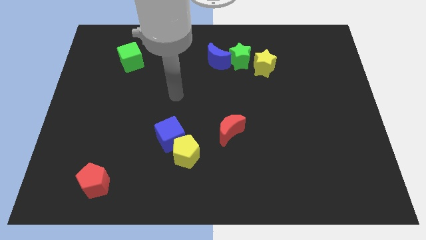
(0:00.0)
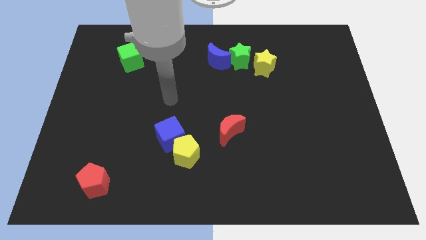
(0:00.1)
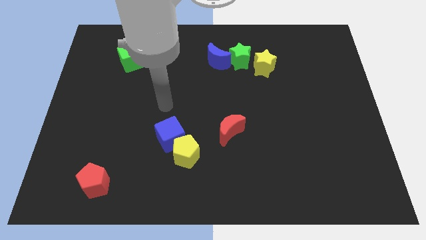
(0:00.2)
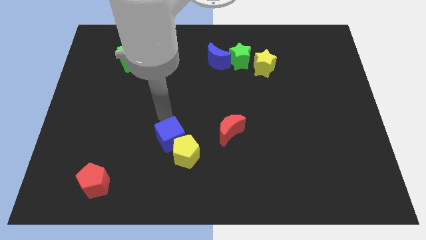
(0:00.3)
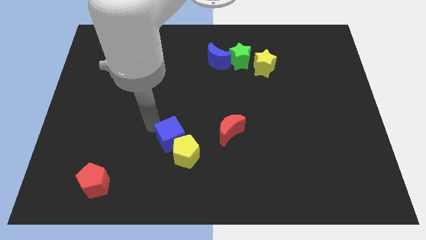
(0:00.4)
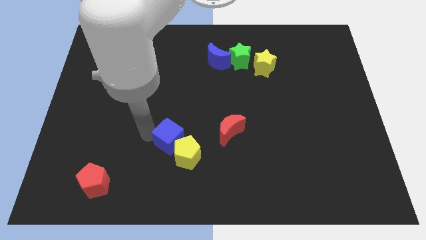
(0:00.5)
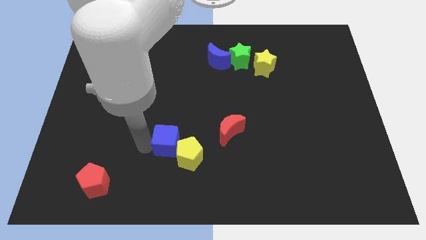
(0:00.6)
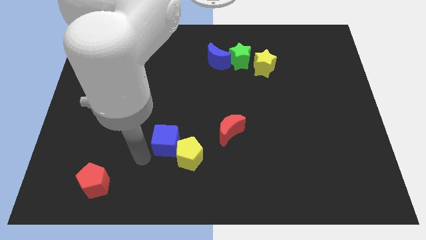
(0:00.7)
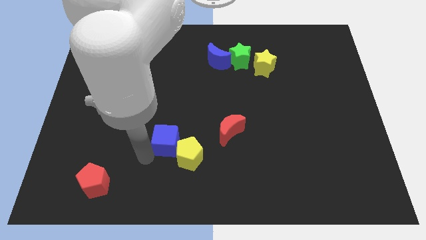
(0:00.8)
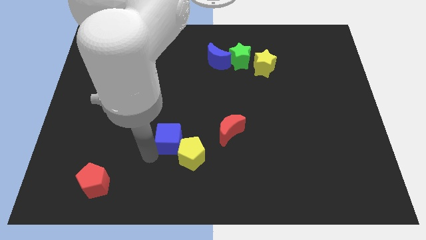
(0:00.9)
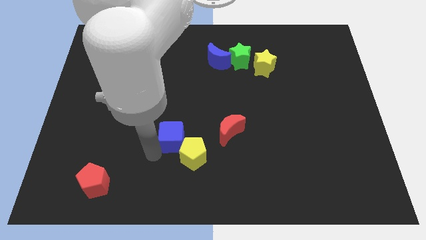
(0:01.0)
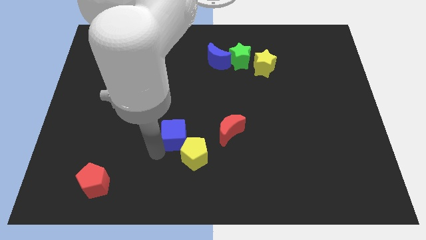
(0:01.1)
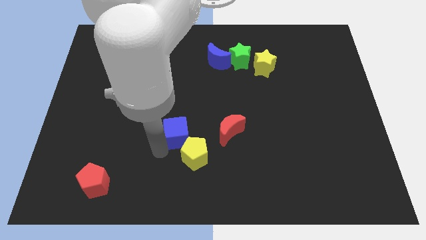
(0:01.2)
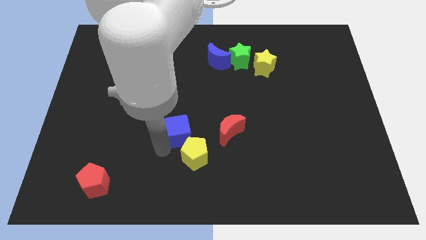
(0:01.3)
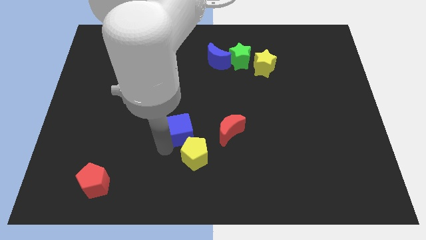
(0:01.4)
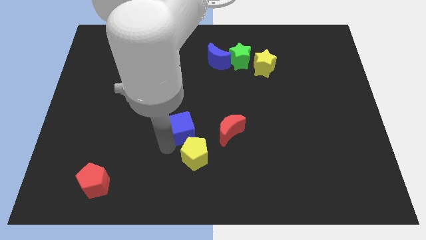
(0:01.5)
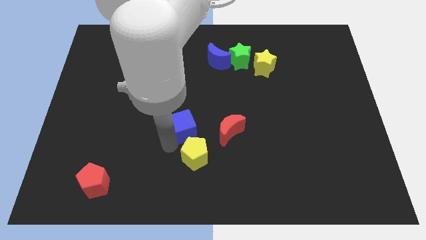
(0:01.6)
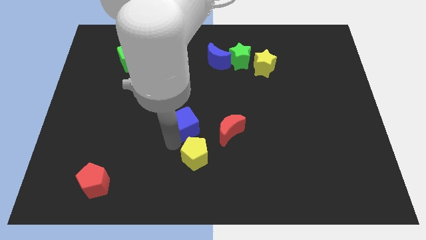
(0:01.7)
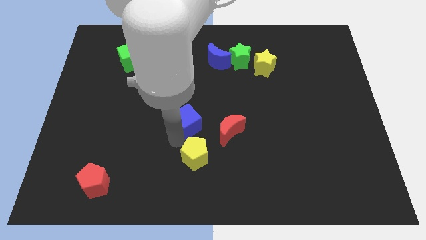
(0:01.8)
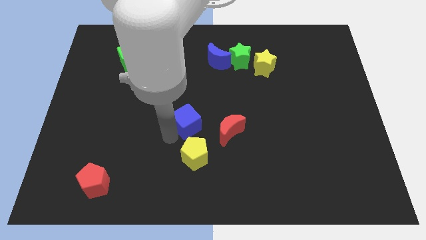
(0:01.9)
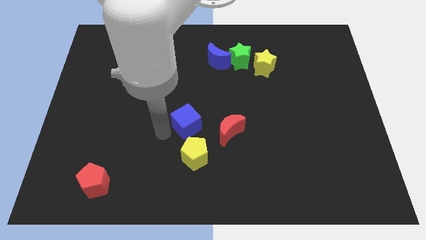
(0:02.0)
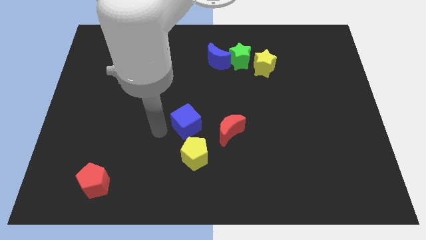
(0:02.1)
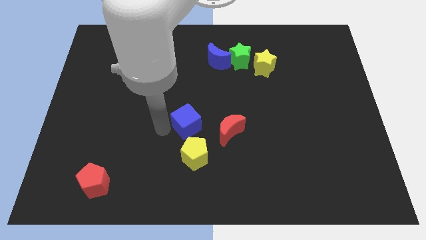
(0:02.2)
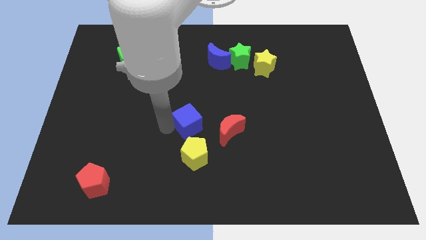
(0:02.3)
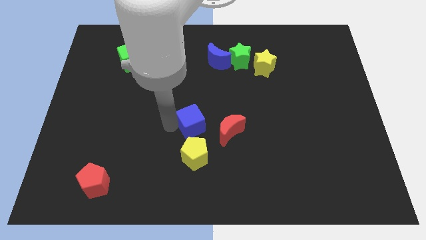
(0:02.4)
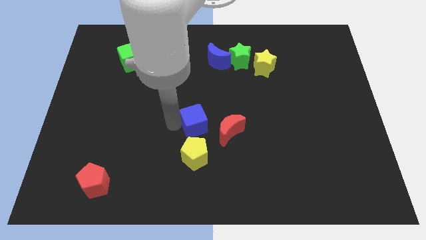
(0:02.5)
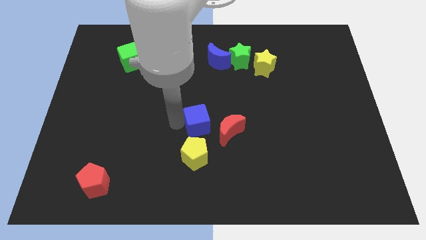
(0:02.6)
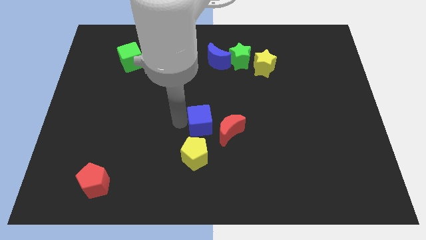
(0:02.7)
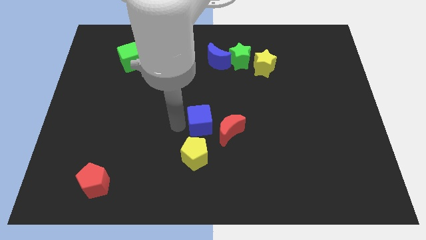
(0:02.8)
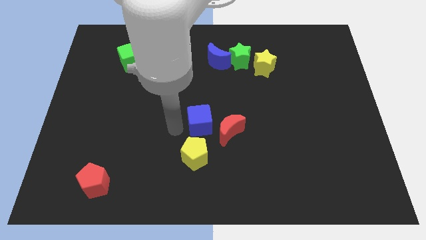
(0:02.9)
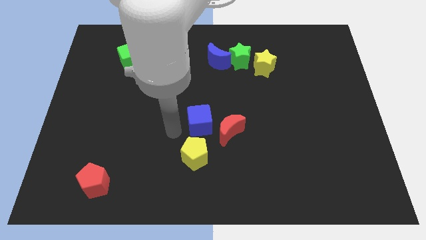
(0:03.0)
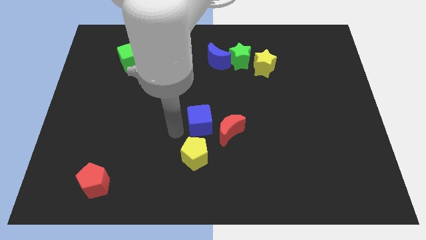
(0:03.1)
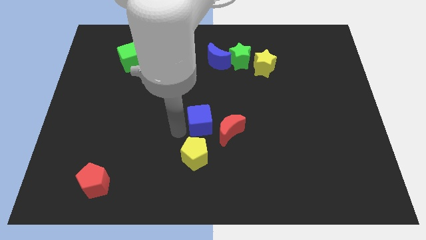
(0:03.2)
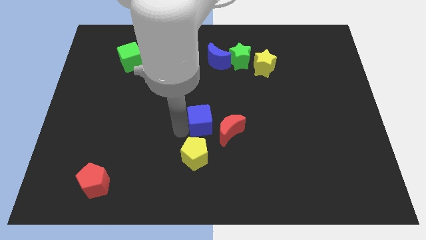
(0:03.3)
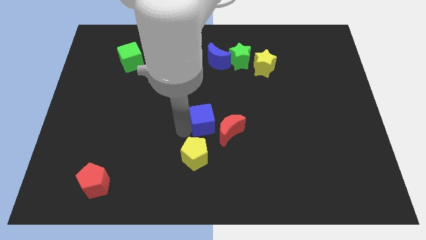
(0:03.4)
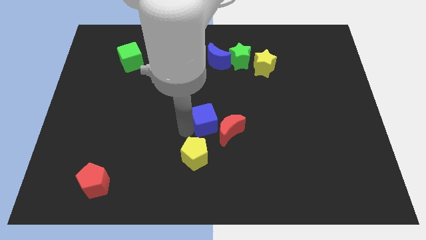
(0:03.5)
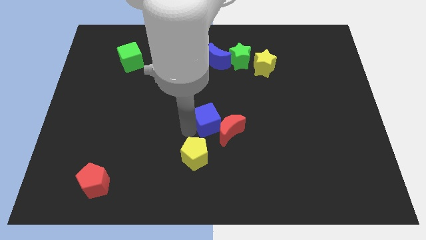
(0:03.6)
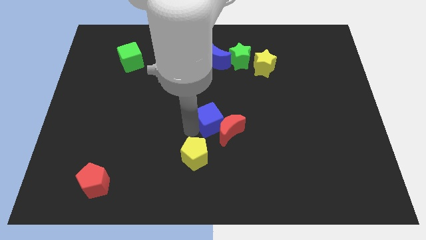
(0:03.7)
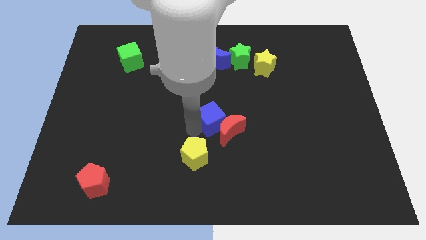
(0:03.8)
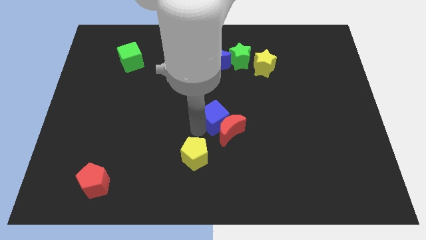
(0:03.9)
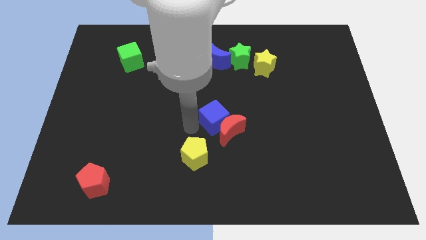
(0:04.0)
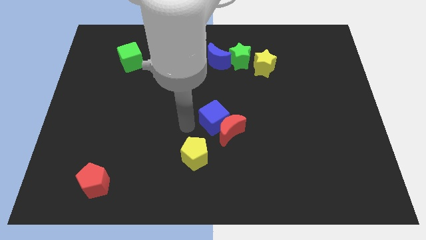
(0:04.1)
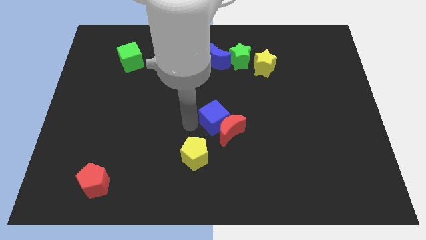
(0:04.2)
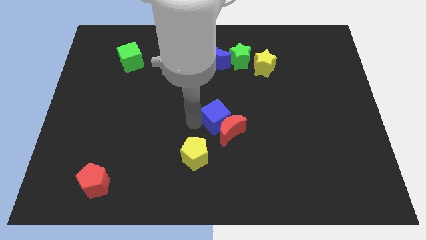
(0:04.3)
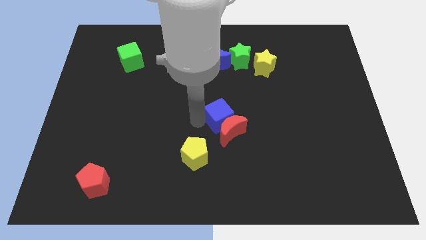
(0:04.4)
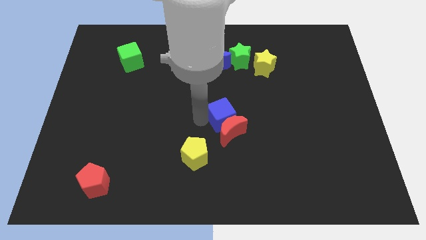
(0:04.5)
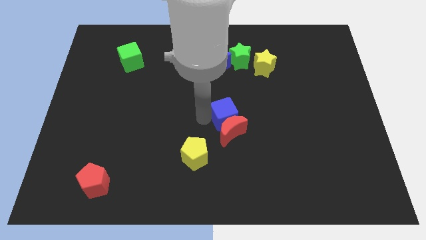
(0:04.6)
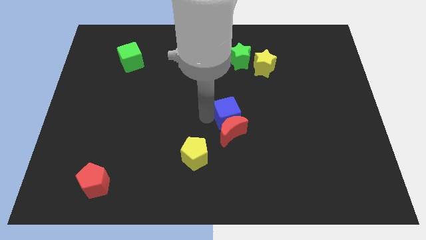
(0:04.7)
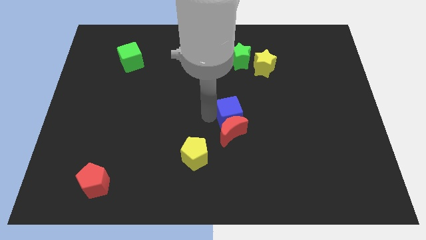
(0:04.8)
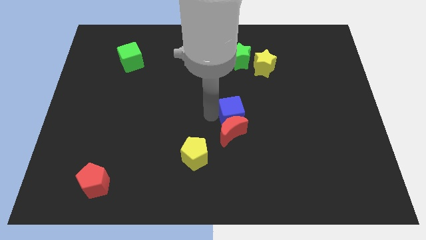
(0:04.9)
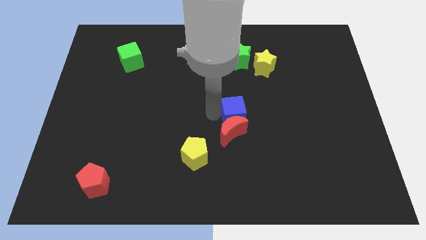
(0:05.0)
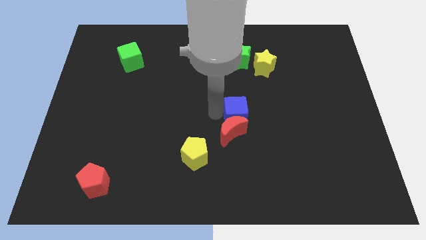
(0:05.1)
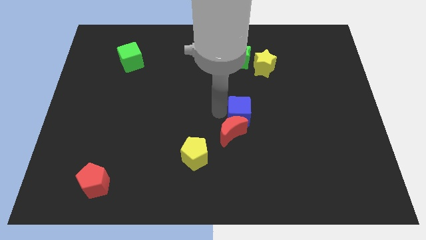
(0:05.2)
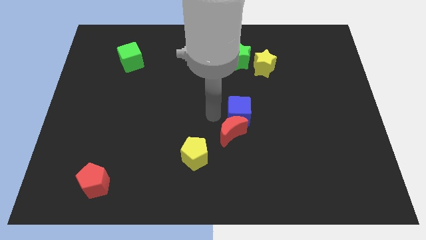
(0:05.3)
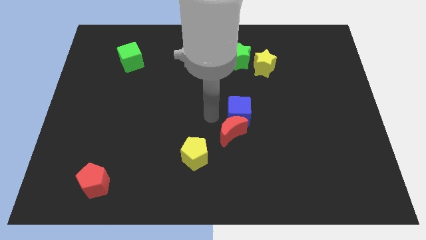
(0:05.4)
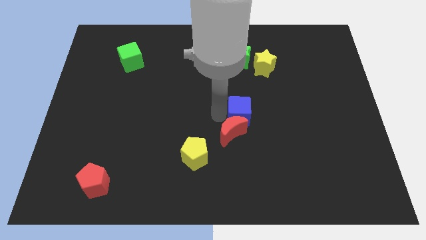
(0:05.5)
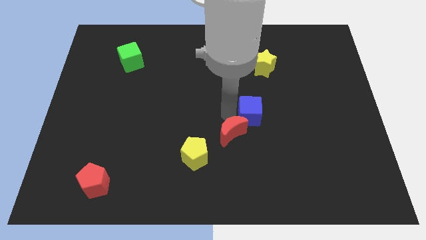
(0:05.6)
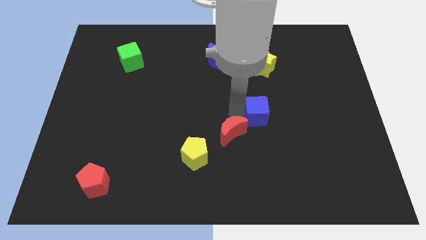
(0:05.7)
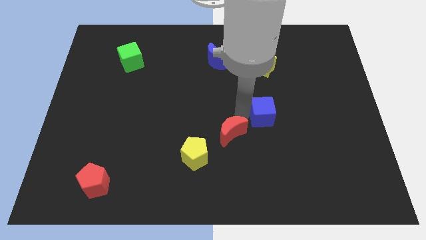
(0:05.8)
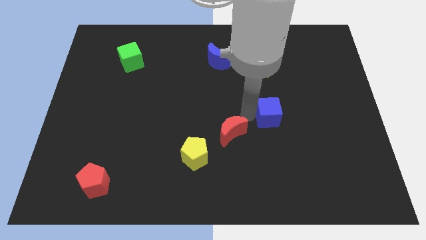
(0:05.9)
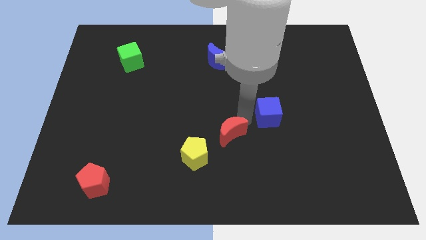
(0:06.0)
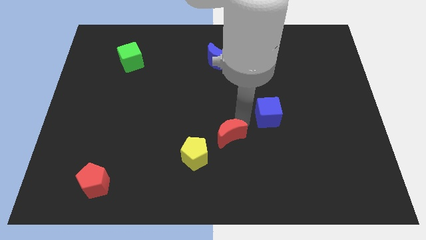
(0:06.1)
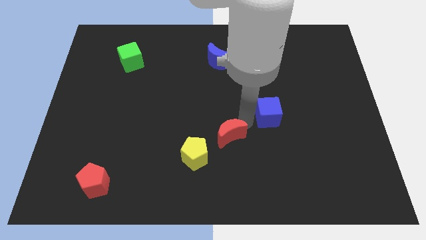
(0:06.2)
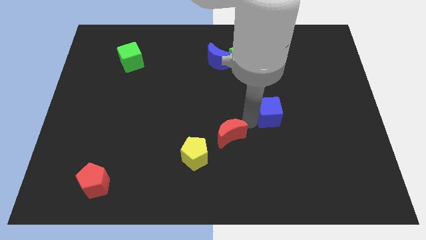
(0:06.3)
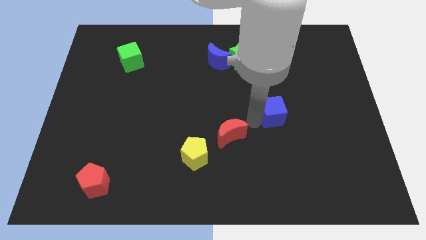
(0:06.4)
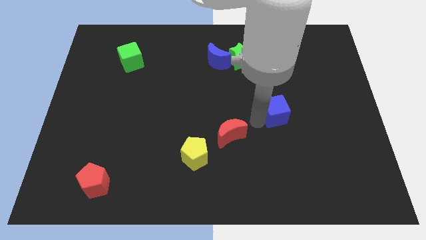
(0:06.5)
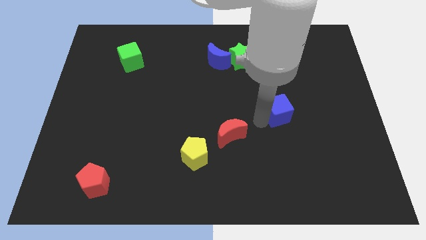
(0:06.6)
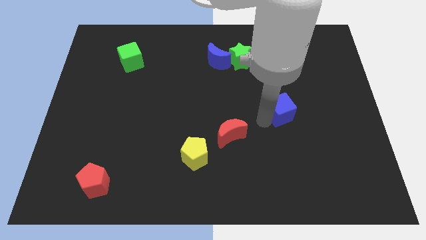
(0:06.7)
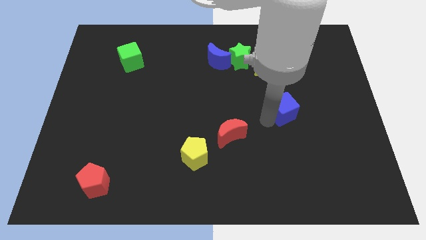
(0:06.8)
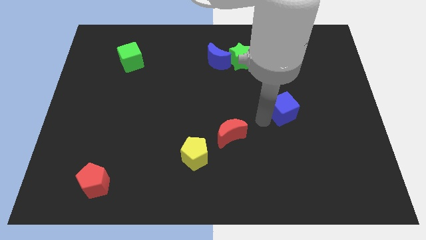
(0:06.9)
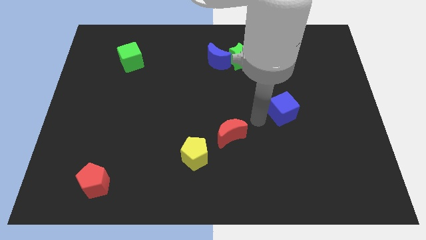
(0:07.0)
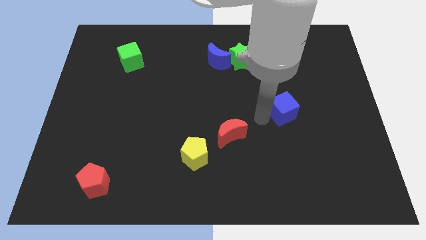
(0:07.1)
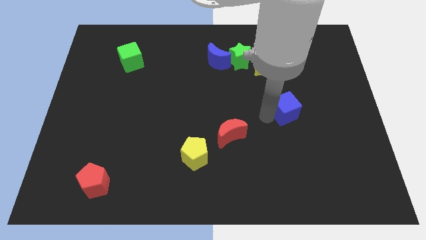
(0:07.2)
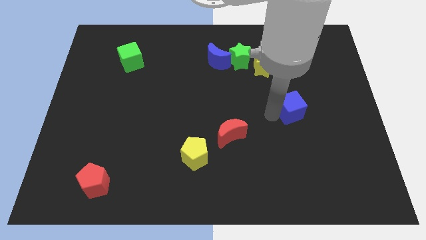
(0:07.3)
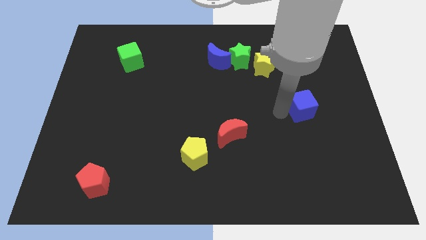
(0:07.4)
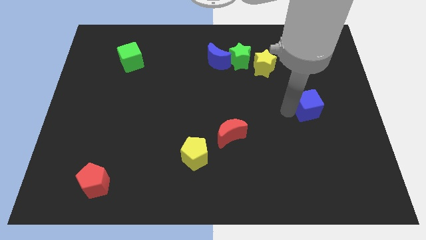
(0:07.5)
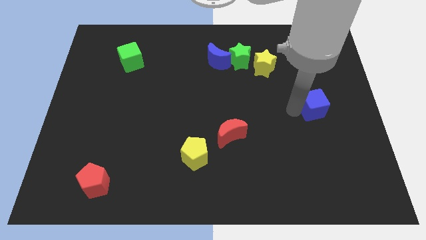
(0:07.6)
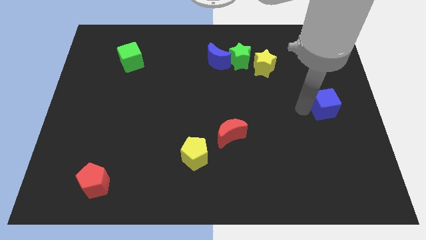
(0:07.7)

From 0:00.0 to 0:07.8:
slide the blue cube to the right side
